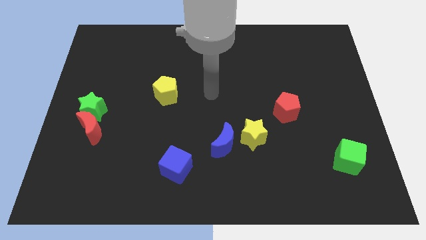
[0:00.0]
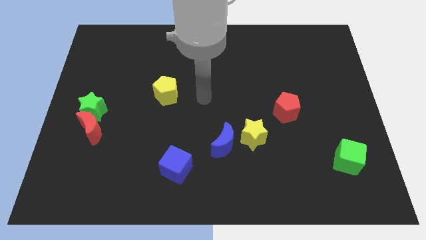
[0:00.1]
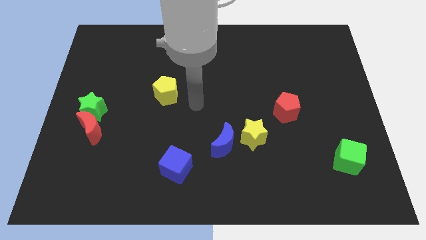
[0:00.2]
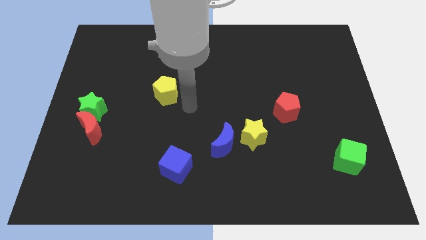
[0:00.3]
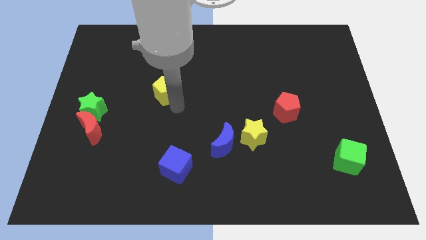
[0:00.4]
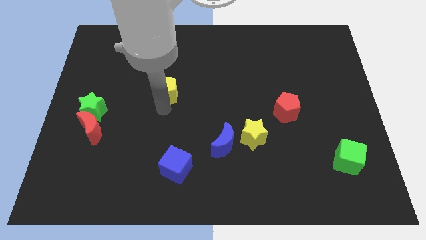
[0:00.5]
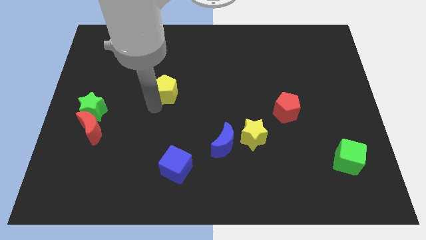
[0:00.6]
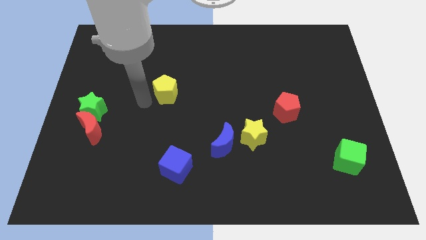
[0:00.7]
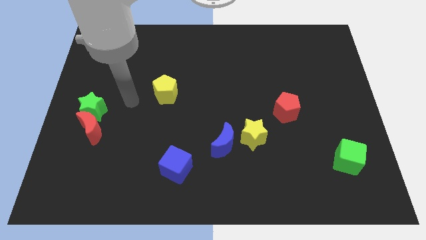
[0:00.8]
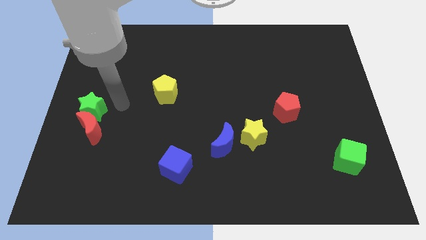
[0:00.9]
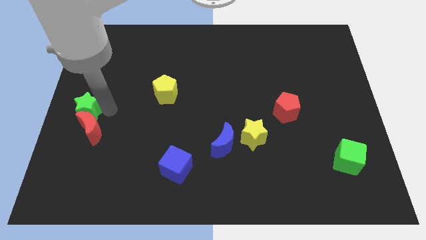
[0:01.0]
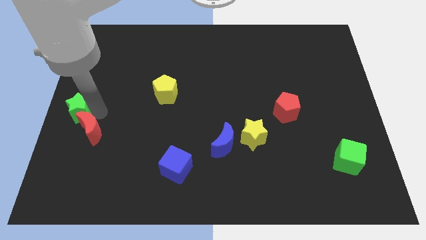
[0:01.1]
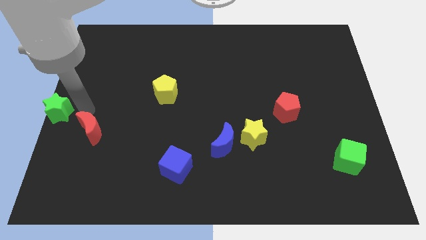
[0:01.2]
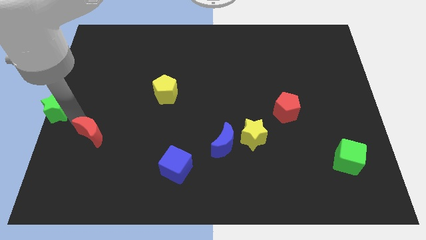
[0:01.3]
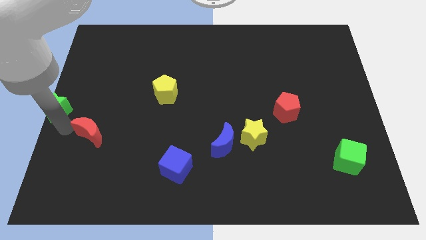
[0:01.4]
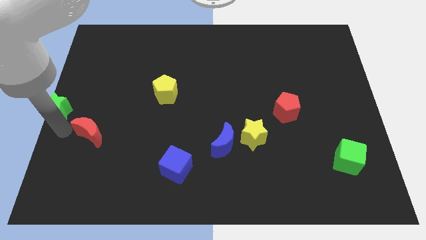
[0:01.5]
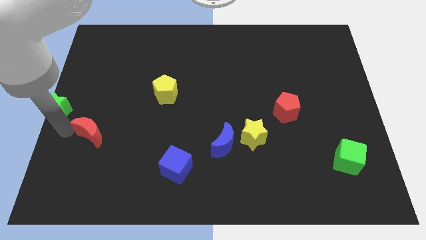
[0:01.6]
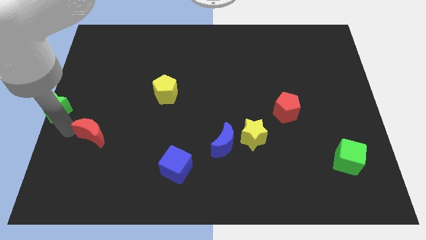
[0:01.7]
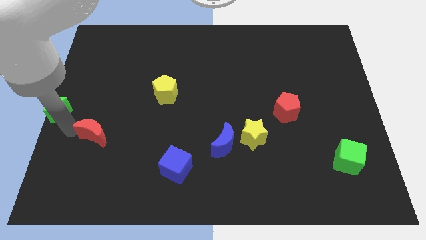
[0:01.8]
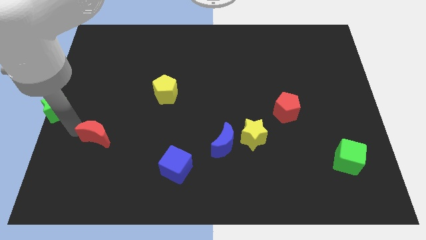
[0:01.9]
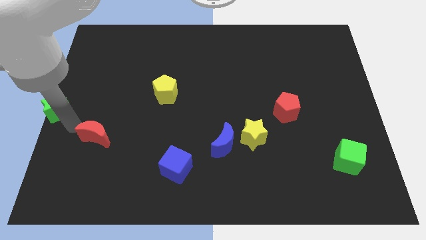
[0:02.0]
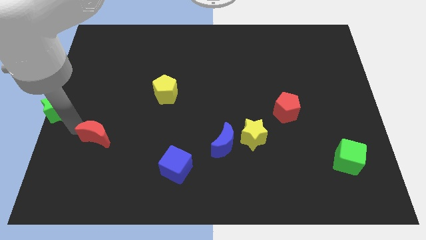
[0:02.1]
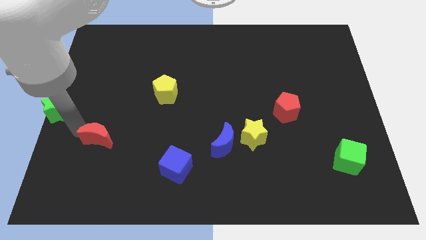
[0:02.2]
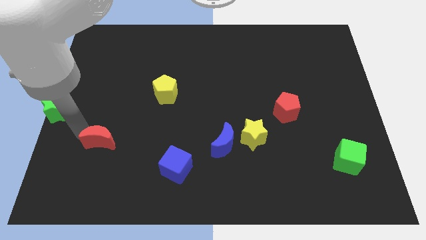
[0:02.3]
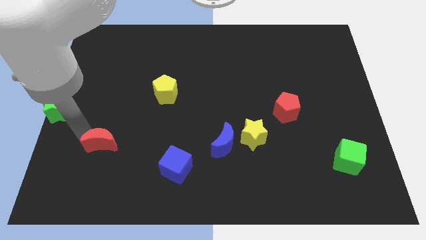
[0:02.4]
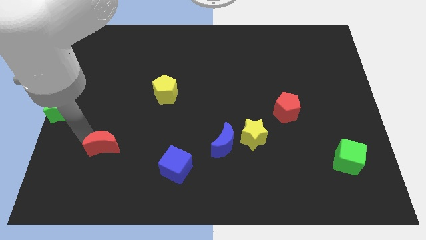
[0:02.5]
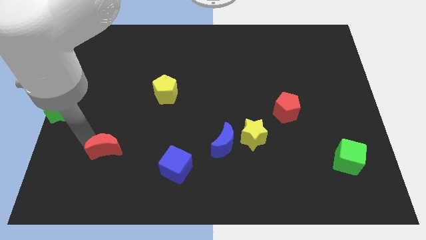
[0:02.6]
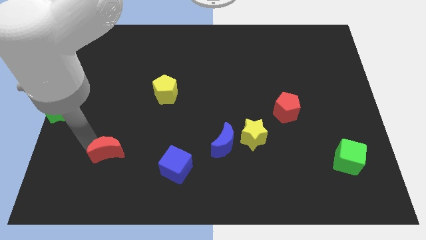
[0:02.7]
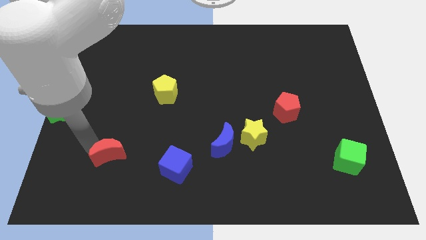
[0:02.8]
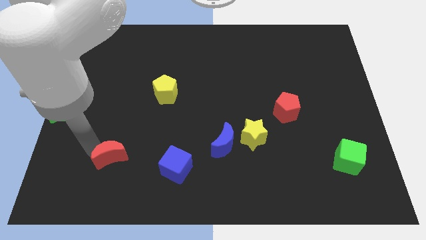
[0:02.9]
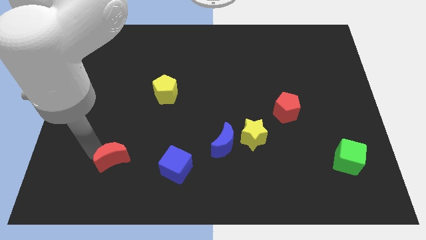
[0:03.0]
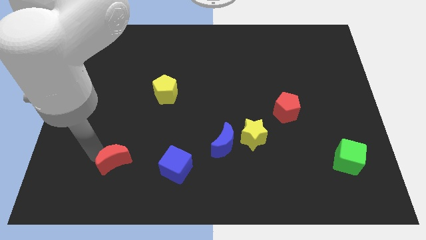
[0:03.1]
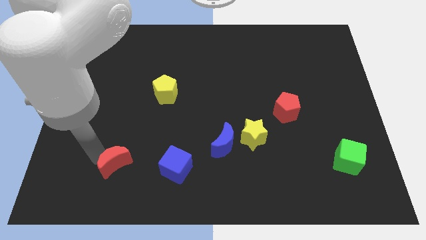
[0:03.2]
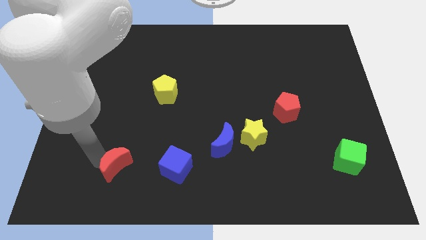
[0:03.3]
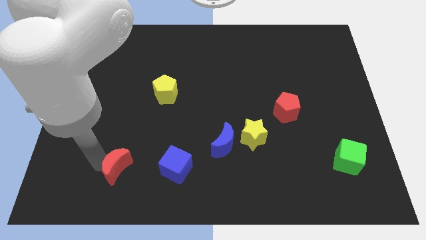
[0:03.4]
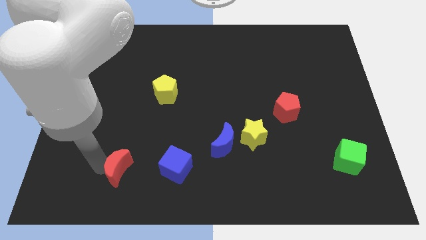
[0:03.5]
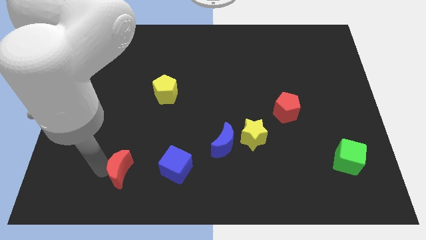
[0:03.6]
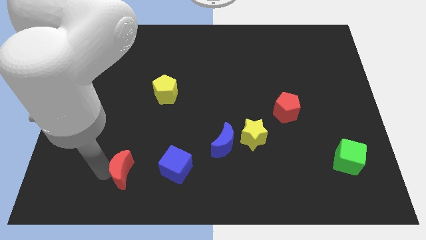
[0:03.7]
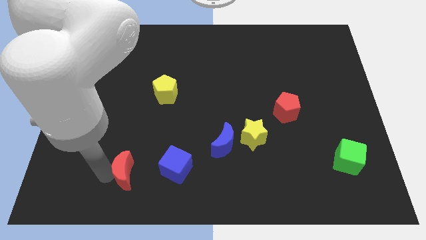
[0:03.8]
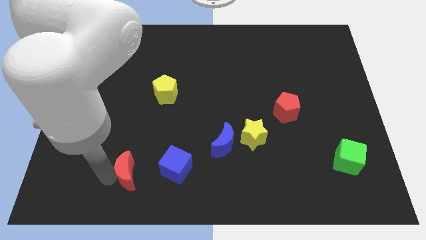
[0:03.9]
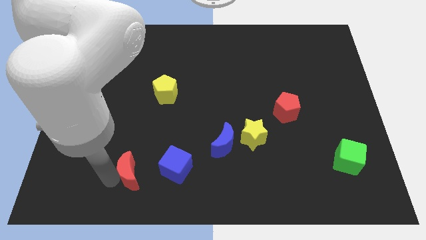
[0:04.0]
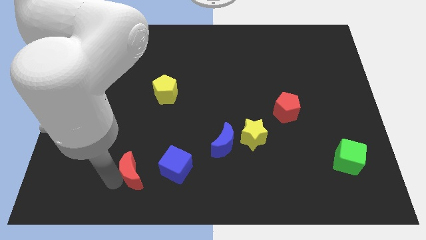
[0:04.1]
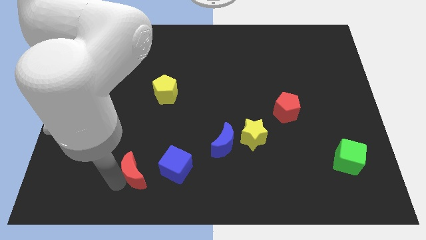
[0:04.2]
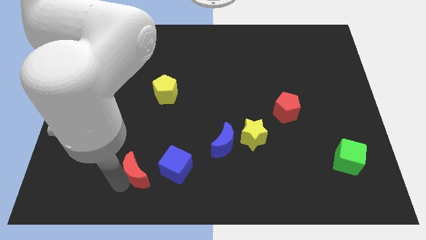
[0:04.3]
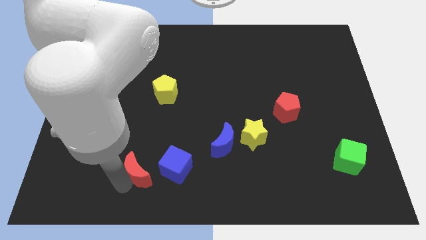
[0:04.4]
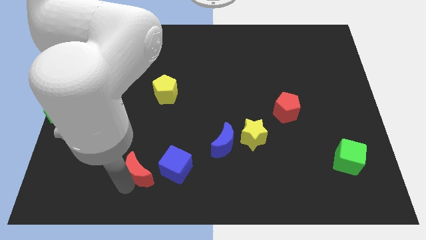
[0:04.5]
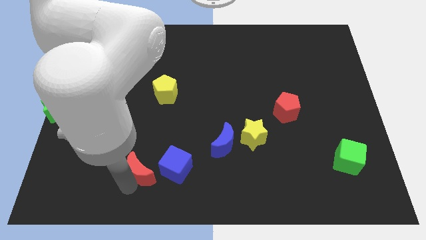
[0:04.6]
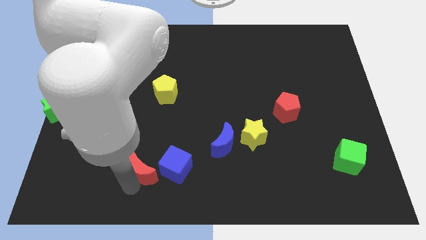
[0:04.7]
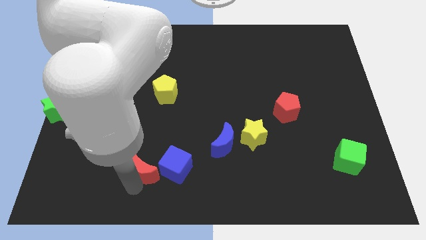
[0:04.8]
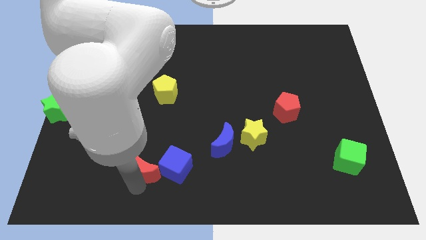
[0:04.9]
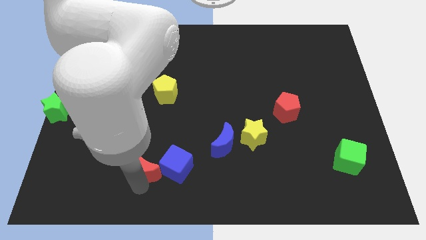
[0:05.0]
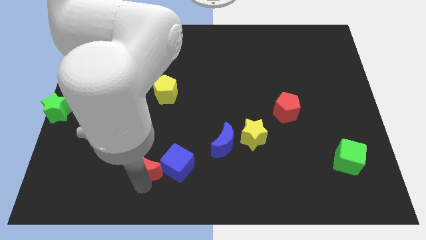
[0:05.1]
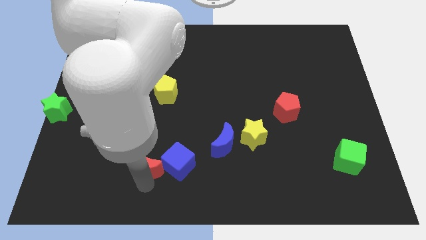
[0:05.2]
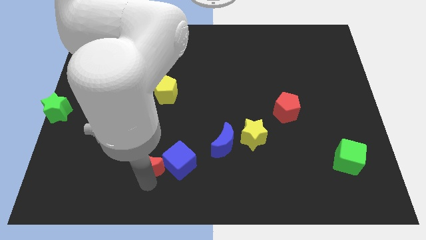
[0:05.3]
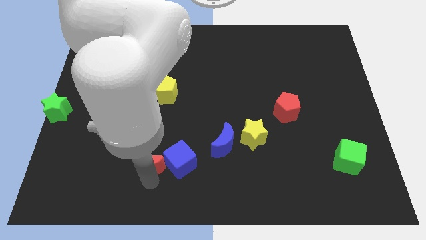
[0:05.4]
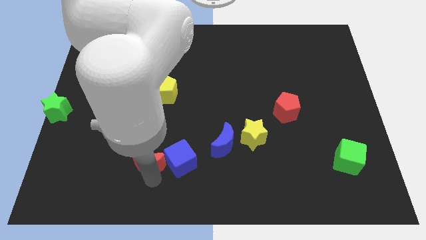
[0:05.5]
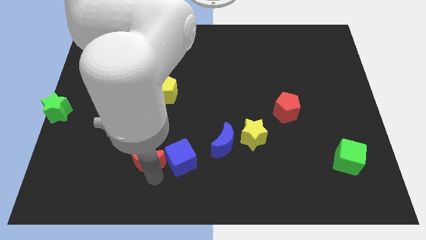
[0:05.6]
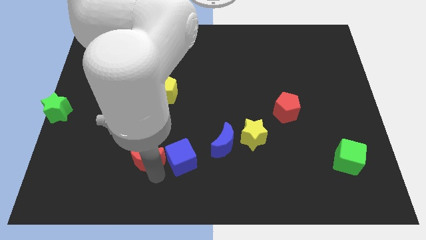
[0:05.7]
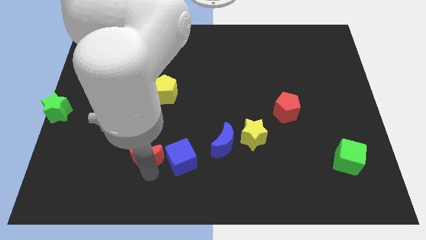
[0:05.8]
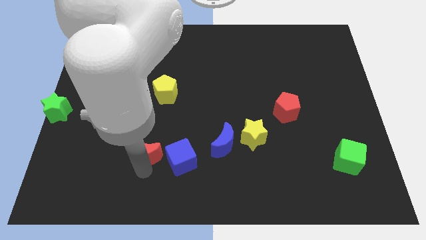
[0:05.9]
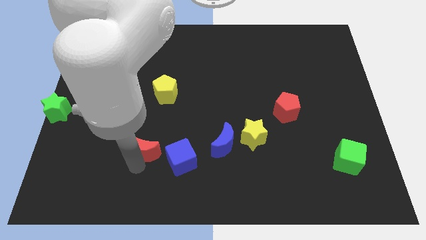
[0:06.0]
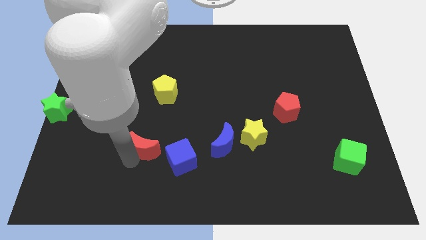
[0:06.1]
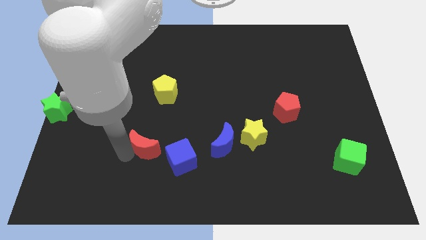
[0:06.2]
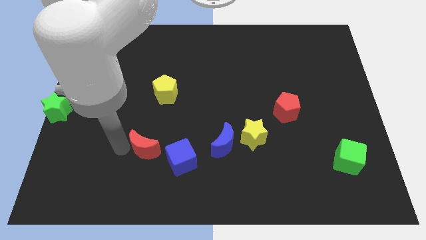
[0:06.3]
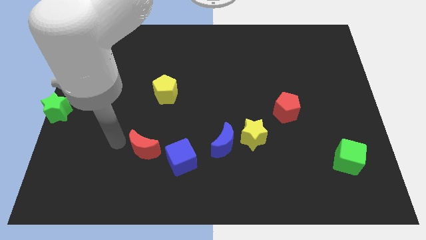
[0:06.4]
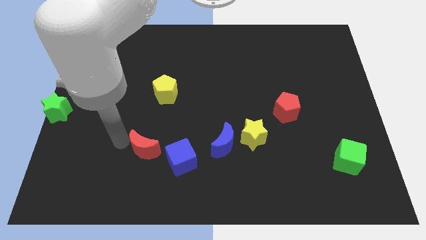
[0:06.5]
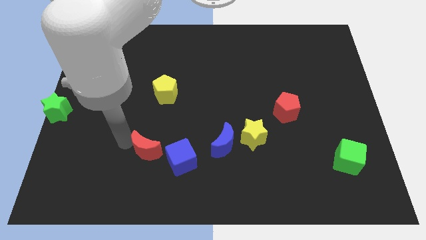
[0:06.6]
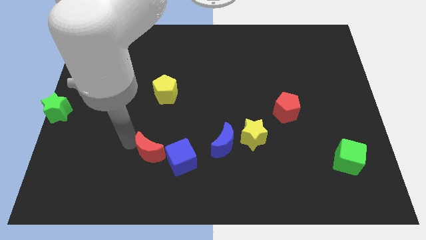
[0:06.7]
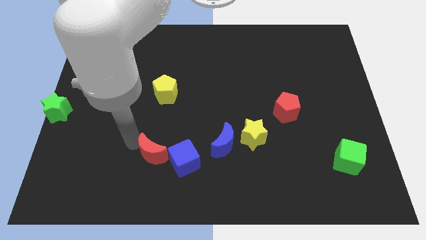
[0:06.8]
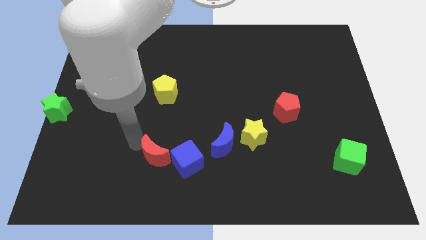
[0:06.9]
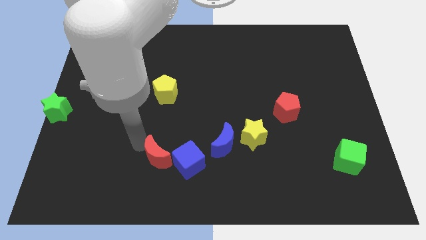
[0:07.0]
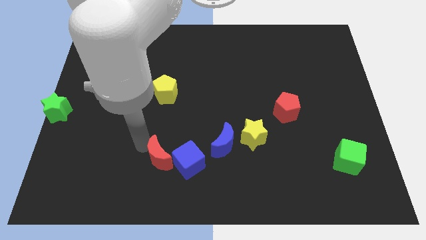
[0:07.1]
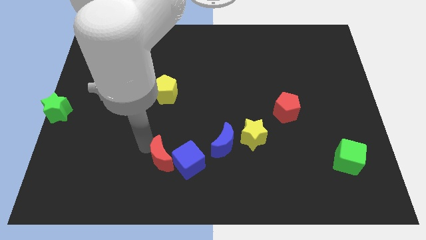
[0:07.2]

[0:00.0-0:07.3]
push the red moon close to the blue cube

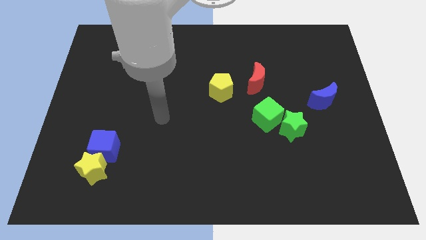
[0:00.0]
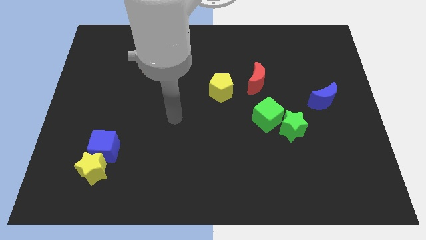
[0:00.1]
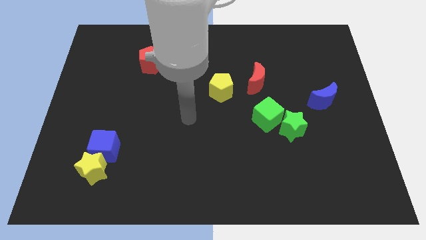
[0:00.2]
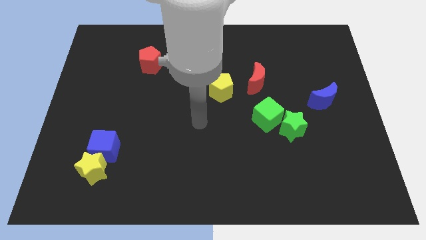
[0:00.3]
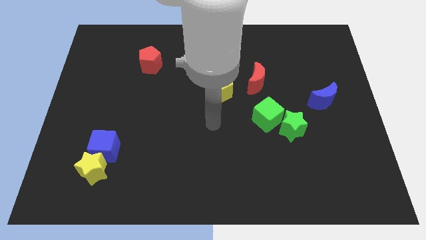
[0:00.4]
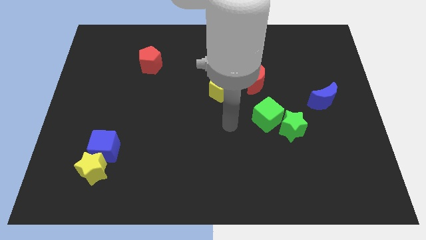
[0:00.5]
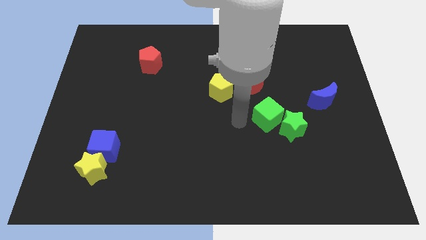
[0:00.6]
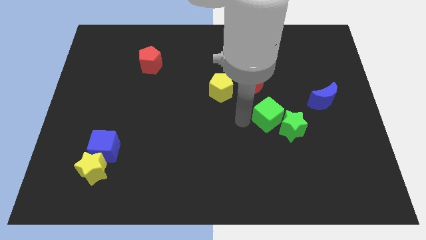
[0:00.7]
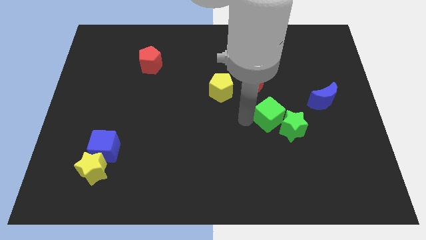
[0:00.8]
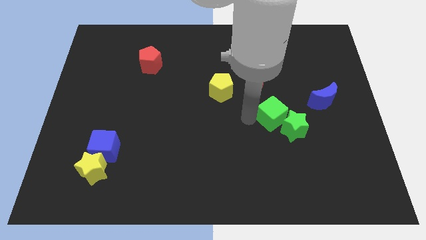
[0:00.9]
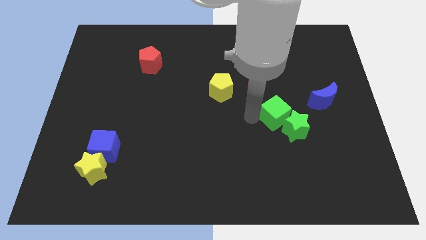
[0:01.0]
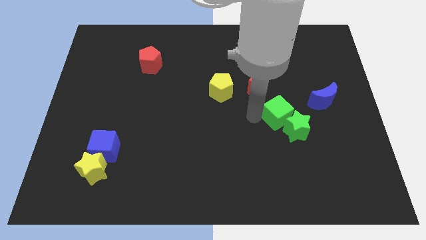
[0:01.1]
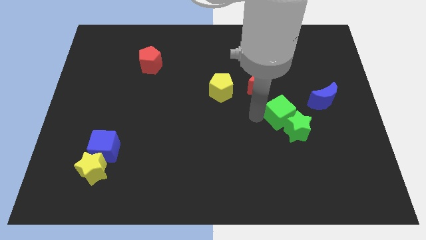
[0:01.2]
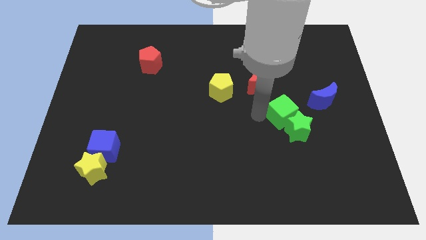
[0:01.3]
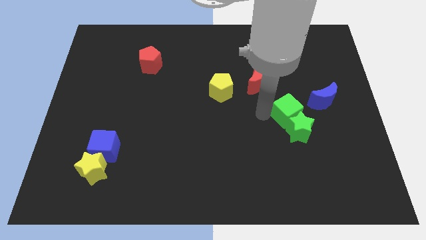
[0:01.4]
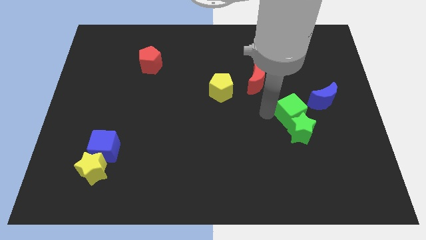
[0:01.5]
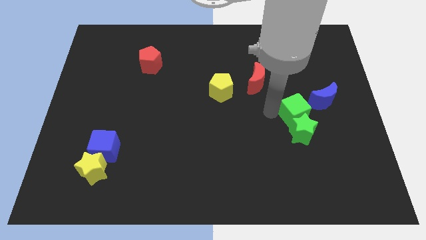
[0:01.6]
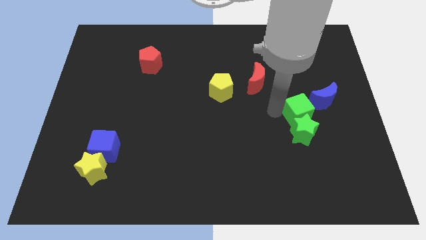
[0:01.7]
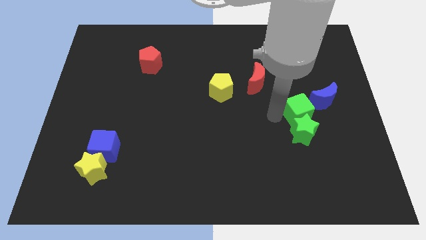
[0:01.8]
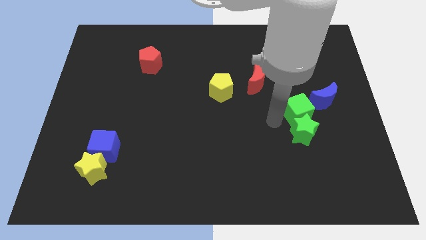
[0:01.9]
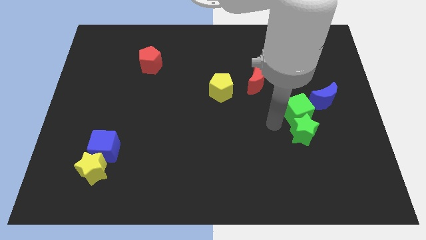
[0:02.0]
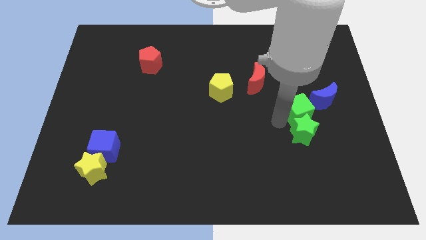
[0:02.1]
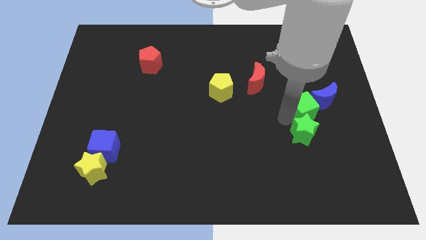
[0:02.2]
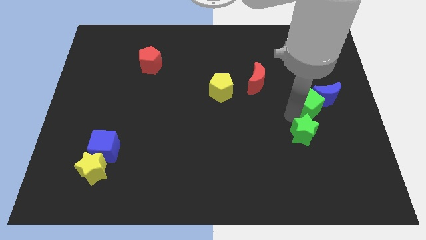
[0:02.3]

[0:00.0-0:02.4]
push the green cube close to the blue moon
